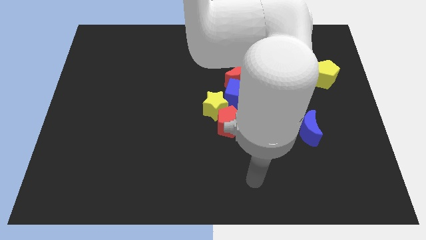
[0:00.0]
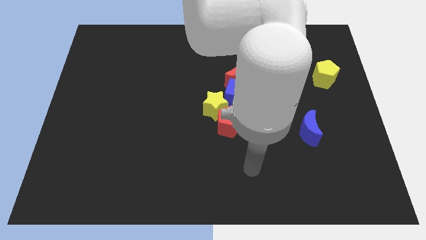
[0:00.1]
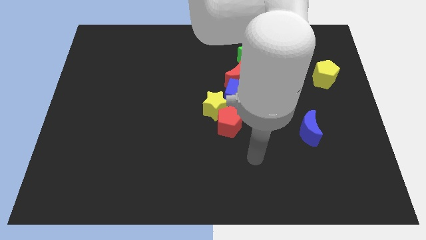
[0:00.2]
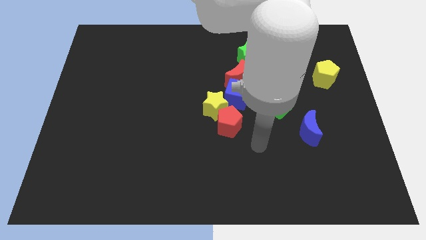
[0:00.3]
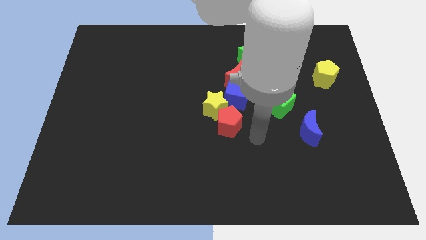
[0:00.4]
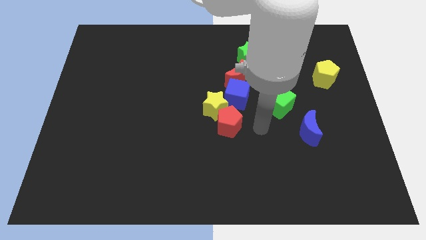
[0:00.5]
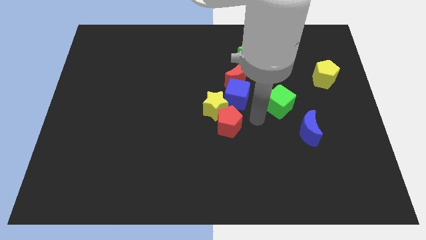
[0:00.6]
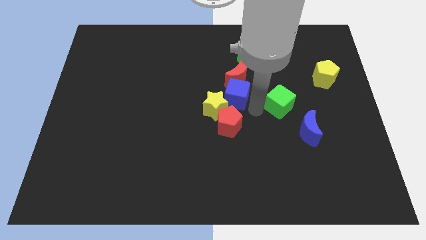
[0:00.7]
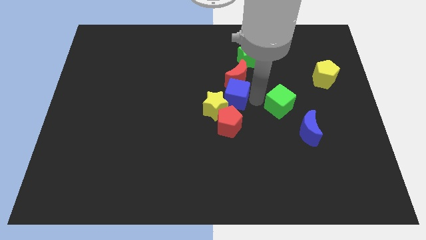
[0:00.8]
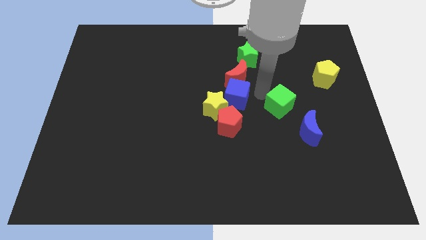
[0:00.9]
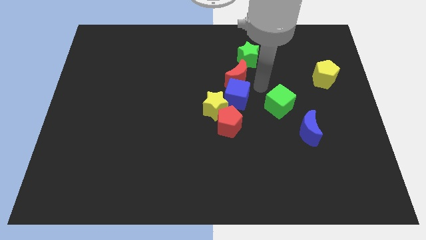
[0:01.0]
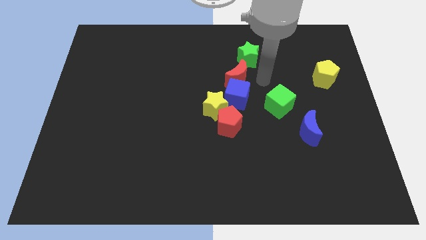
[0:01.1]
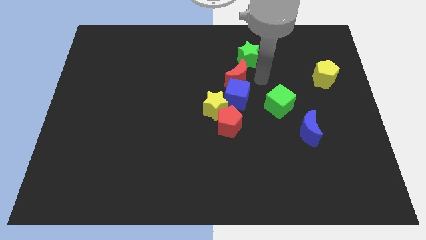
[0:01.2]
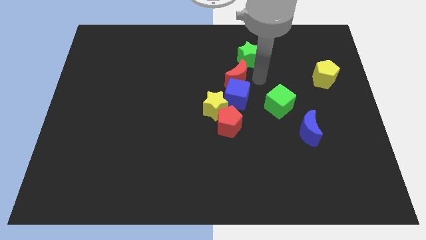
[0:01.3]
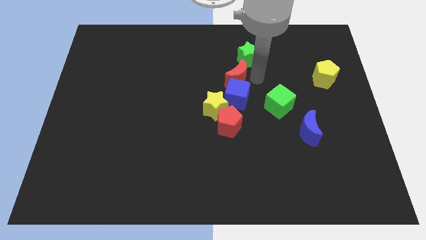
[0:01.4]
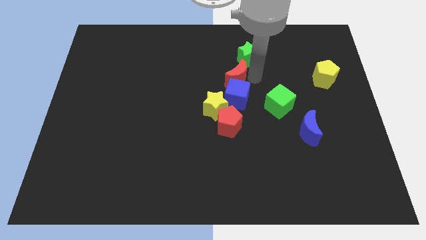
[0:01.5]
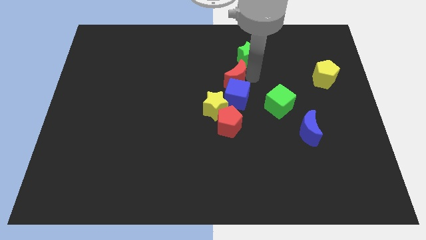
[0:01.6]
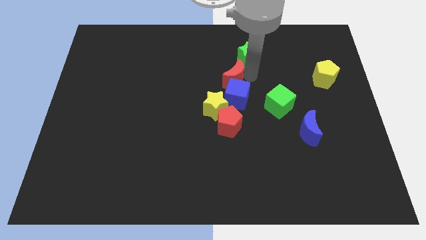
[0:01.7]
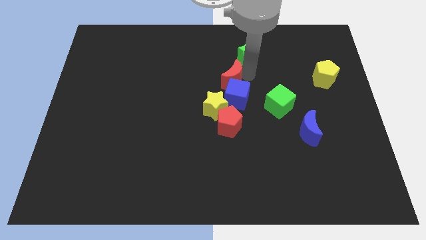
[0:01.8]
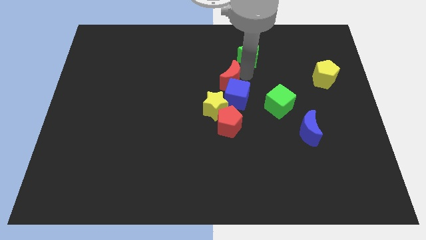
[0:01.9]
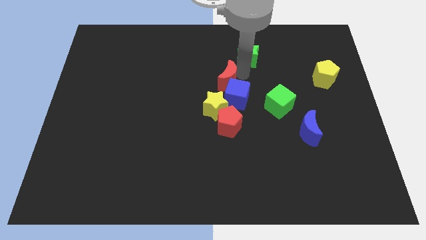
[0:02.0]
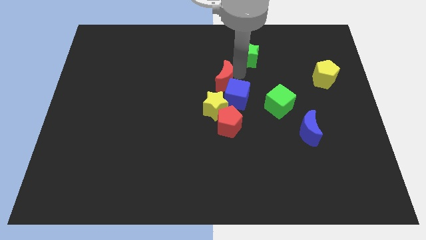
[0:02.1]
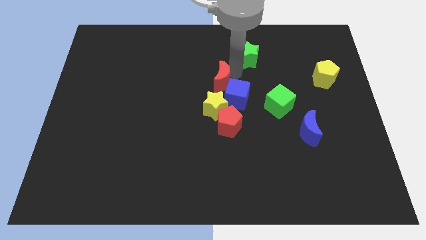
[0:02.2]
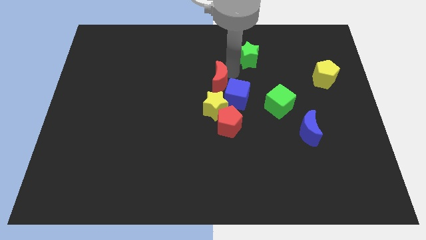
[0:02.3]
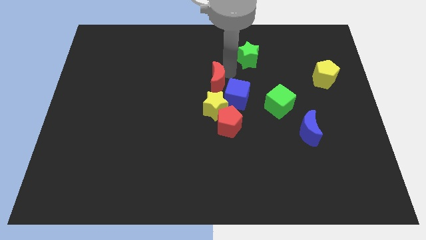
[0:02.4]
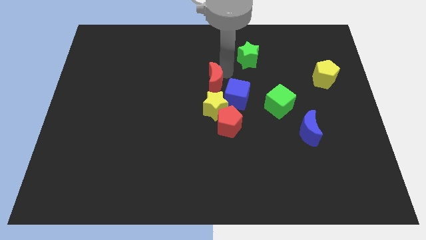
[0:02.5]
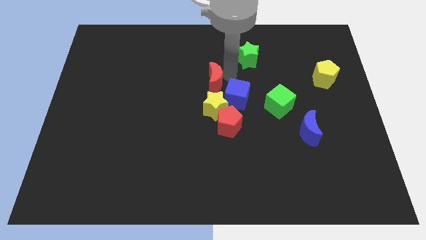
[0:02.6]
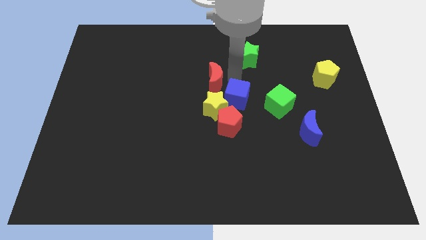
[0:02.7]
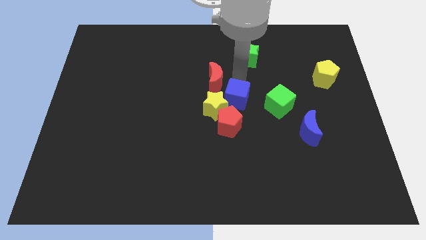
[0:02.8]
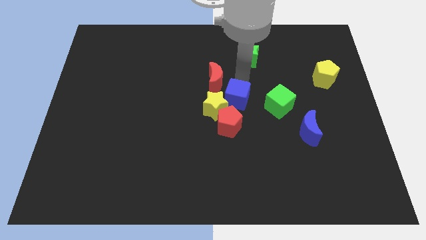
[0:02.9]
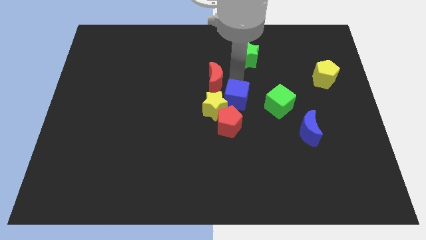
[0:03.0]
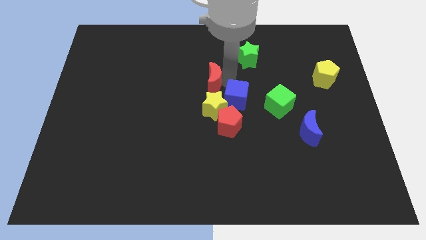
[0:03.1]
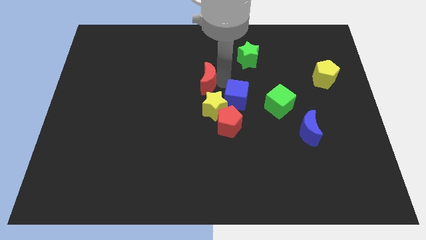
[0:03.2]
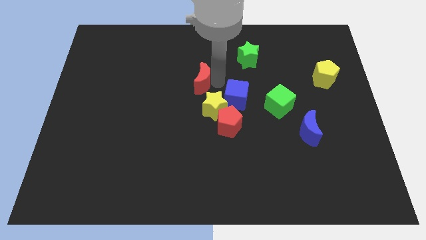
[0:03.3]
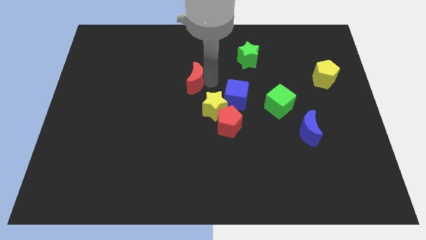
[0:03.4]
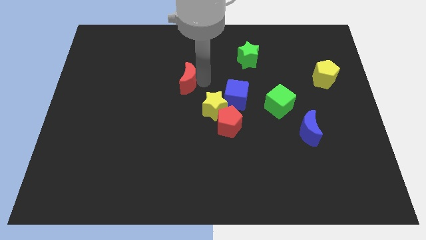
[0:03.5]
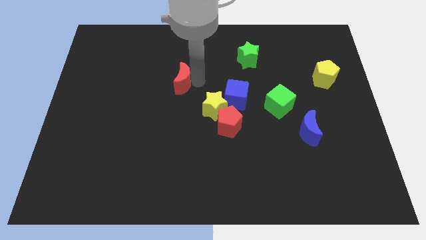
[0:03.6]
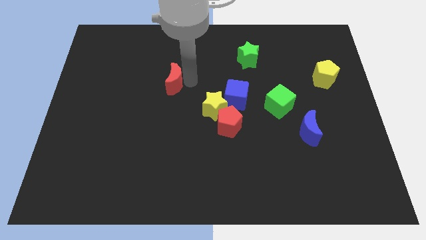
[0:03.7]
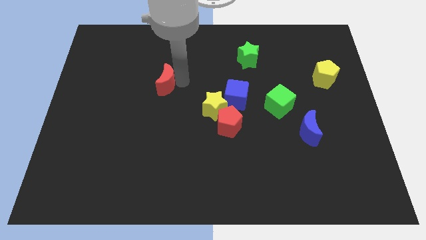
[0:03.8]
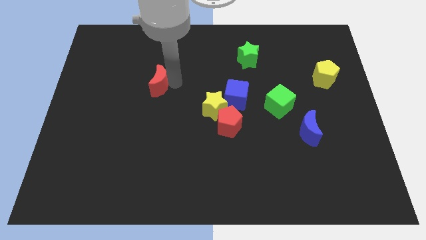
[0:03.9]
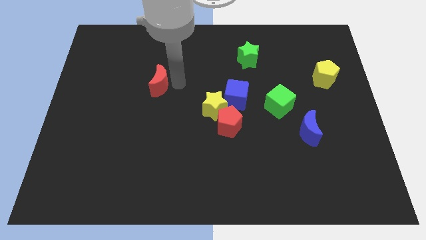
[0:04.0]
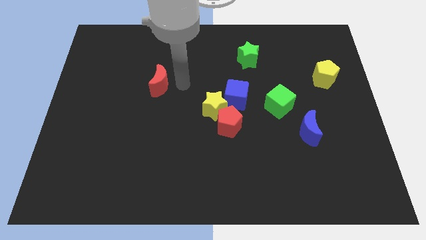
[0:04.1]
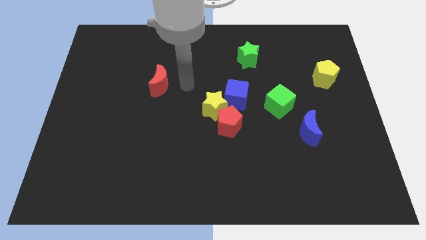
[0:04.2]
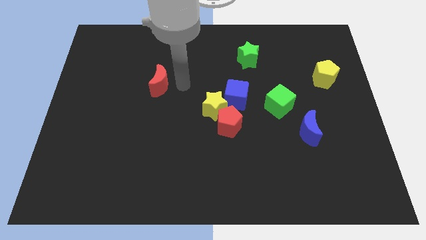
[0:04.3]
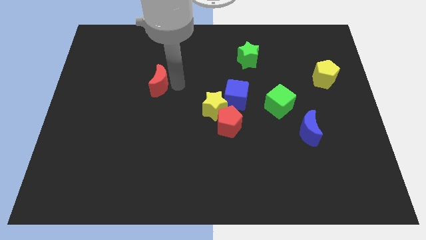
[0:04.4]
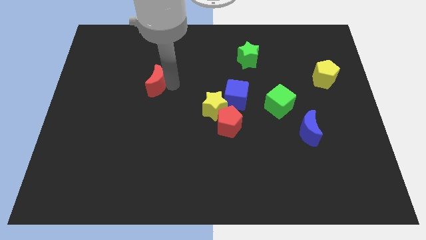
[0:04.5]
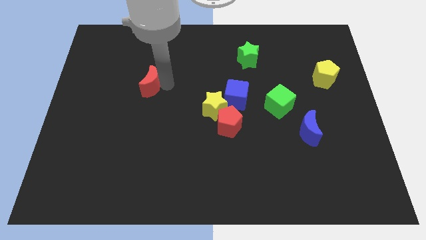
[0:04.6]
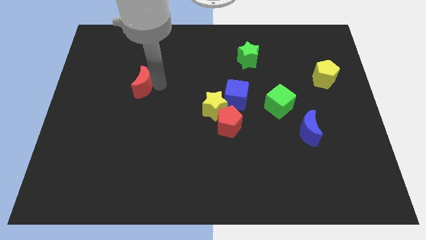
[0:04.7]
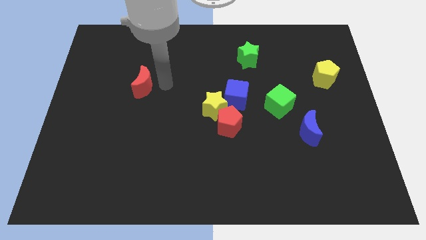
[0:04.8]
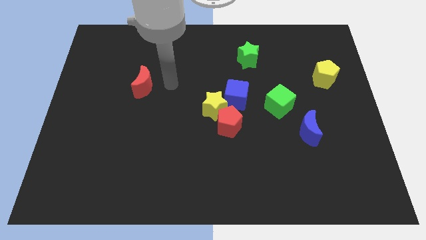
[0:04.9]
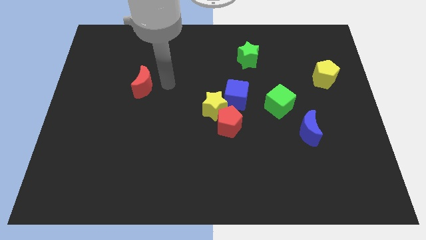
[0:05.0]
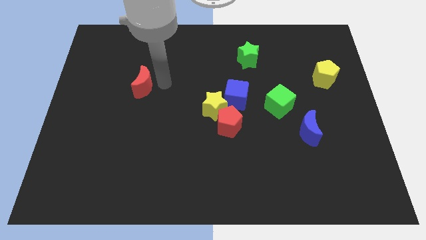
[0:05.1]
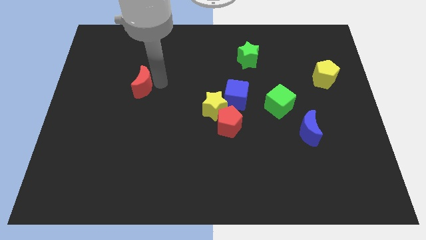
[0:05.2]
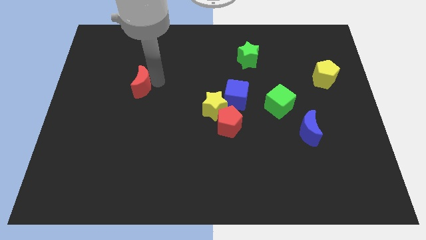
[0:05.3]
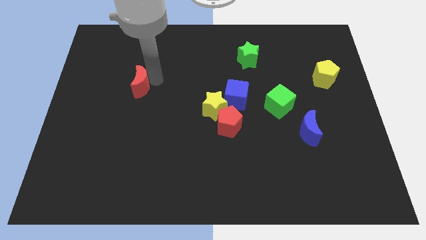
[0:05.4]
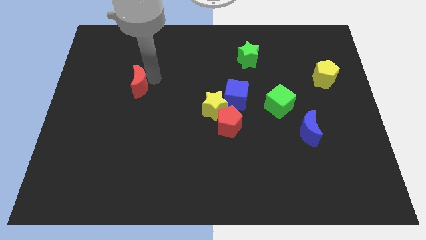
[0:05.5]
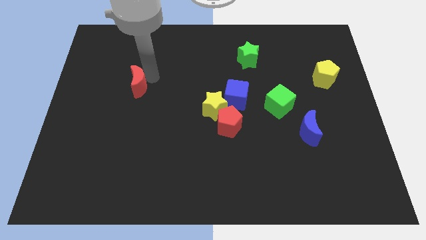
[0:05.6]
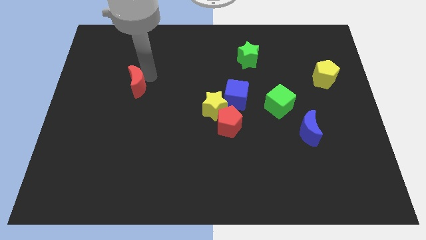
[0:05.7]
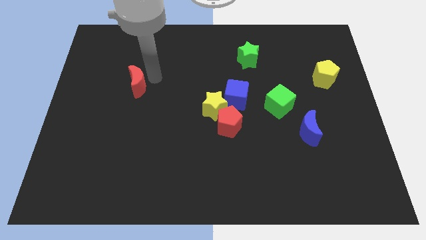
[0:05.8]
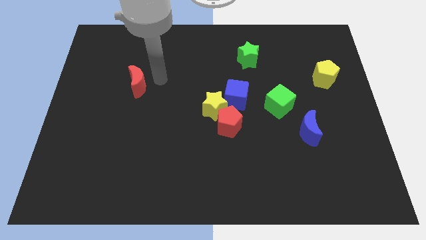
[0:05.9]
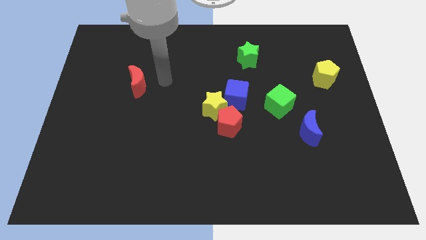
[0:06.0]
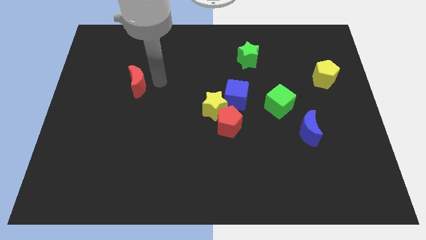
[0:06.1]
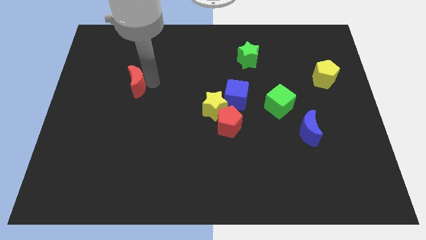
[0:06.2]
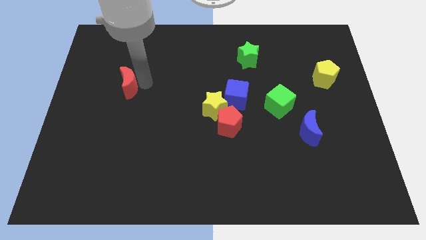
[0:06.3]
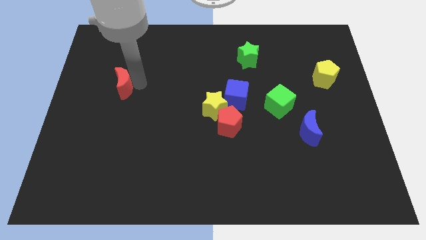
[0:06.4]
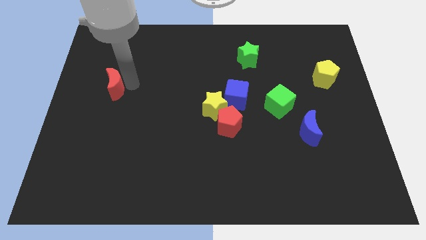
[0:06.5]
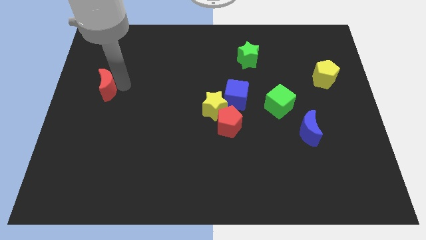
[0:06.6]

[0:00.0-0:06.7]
slide the red moon to the left side of the board

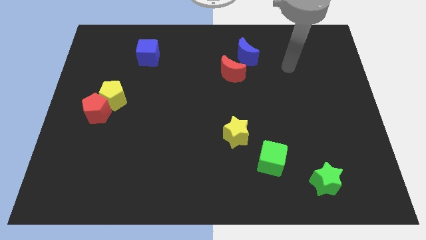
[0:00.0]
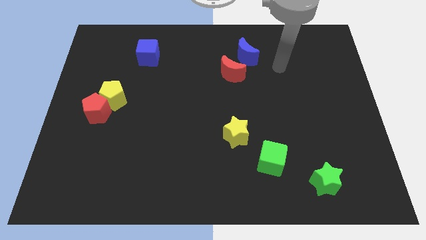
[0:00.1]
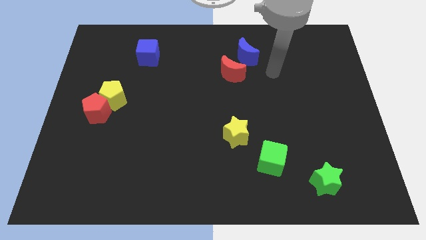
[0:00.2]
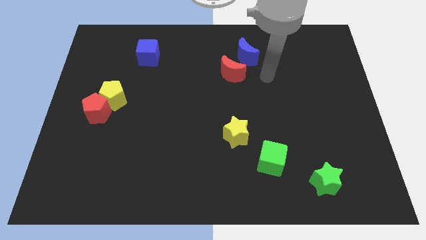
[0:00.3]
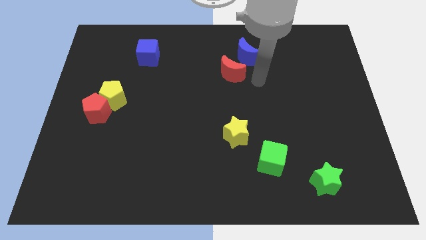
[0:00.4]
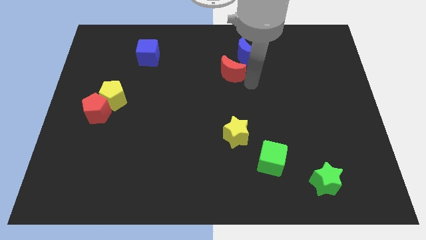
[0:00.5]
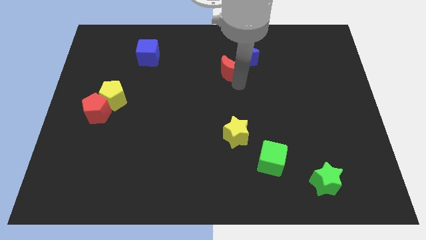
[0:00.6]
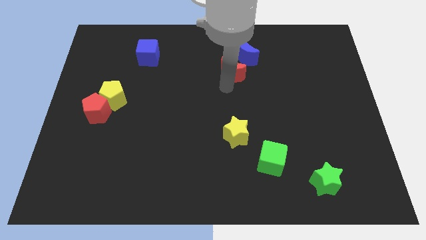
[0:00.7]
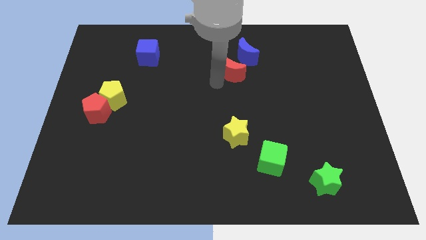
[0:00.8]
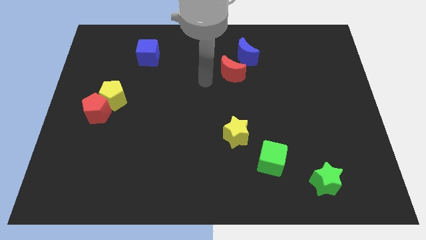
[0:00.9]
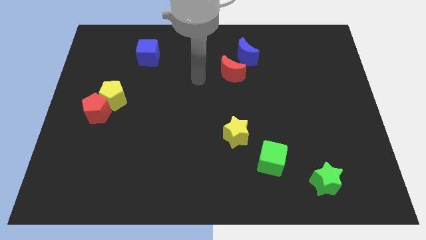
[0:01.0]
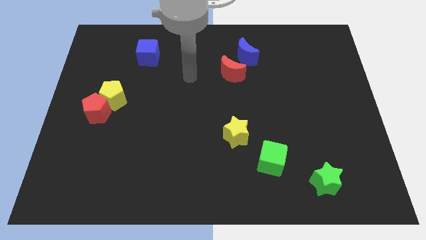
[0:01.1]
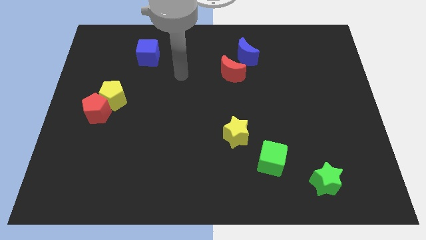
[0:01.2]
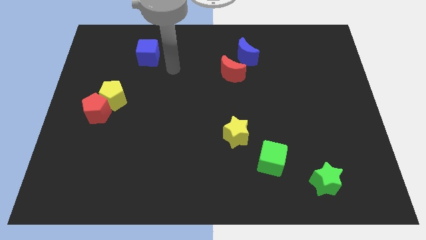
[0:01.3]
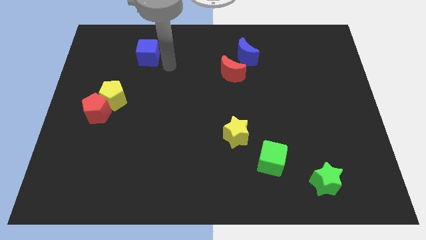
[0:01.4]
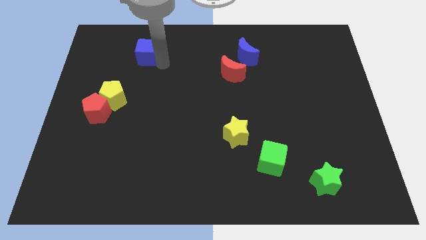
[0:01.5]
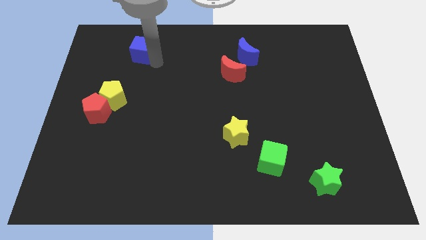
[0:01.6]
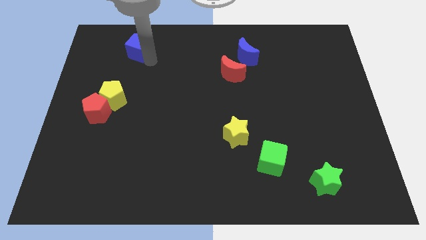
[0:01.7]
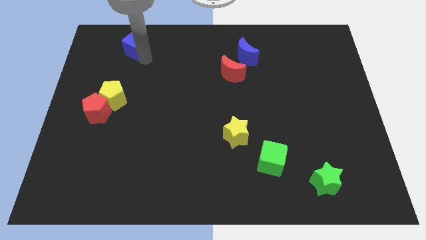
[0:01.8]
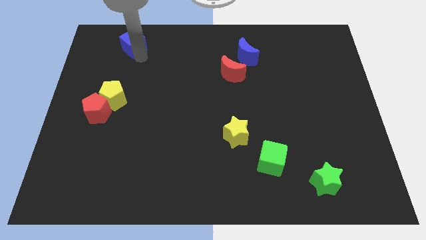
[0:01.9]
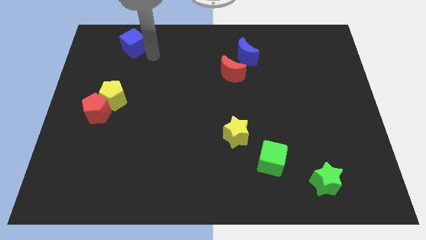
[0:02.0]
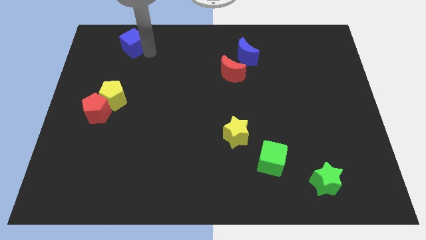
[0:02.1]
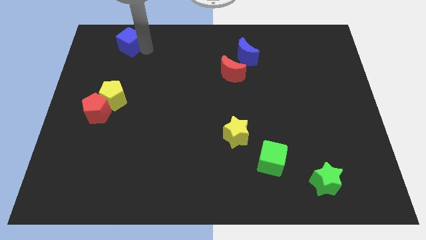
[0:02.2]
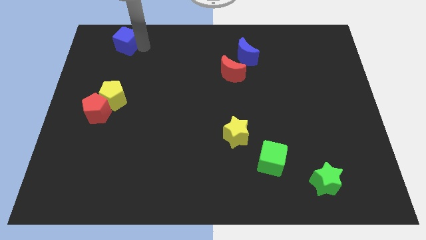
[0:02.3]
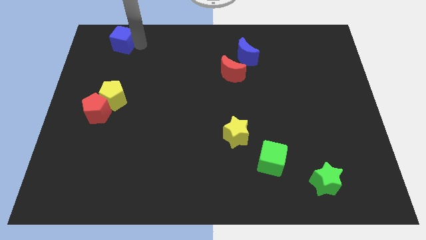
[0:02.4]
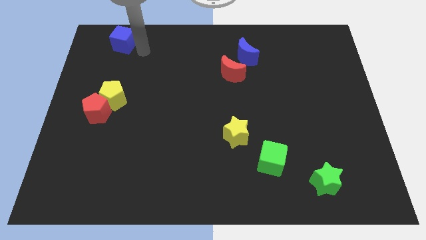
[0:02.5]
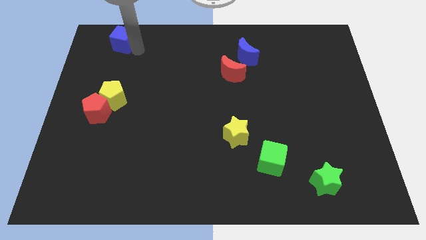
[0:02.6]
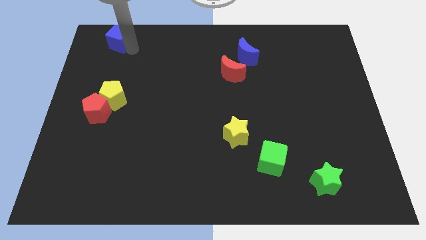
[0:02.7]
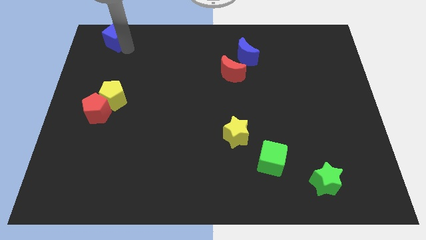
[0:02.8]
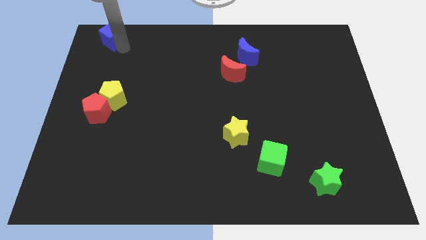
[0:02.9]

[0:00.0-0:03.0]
slide the blue cube to the top left
